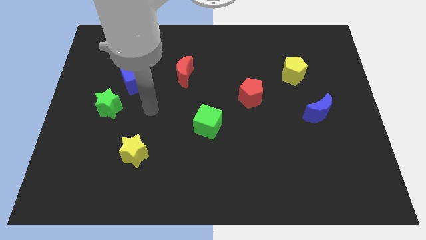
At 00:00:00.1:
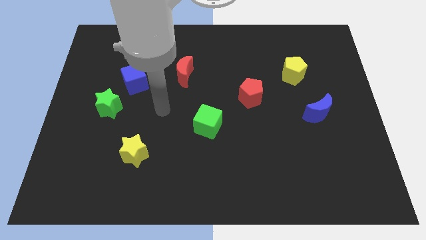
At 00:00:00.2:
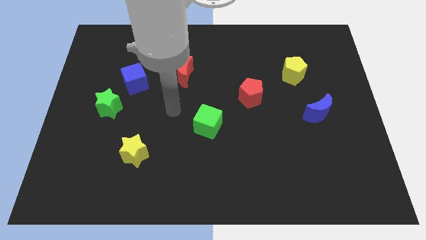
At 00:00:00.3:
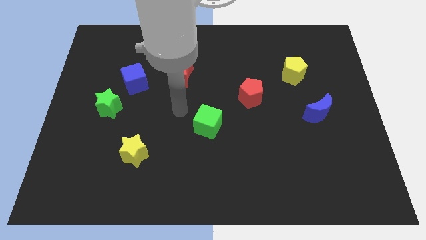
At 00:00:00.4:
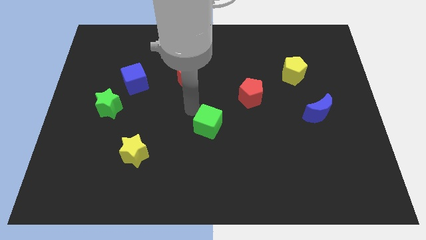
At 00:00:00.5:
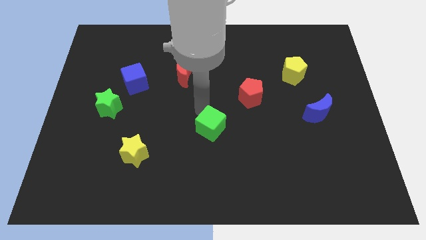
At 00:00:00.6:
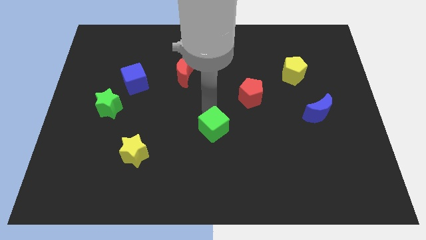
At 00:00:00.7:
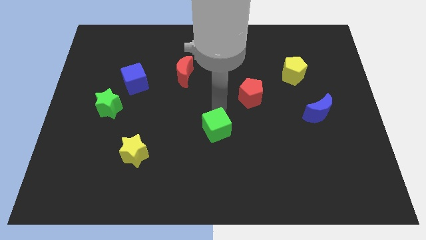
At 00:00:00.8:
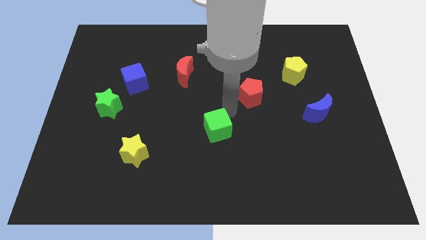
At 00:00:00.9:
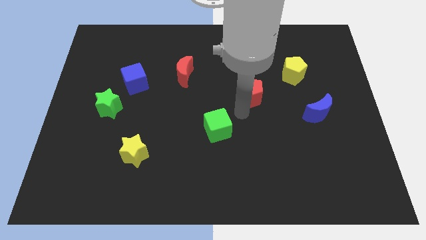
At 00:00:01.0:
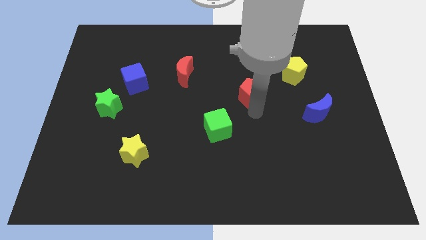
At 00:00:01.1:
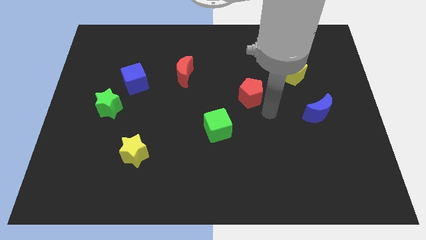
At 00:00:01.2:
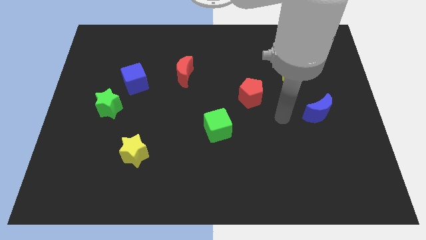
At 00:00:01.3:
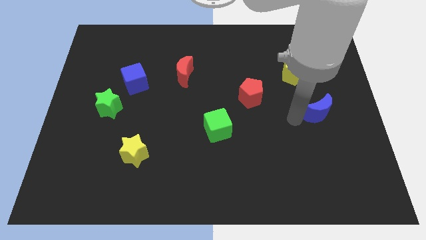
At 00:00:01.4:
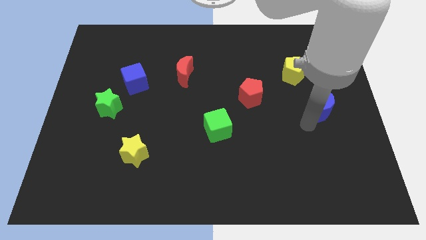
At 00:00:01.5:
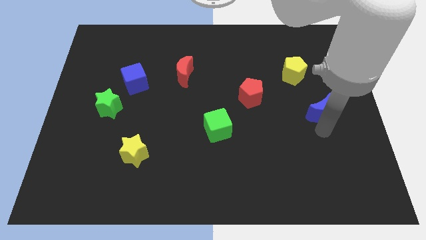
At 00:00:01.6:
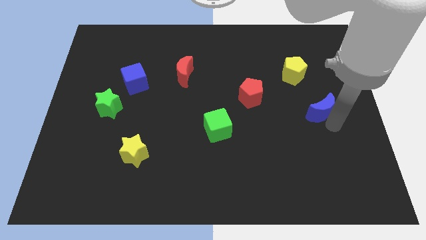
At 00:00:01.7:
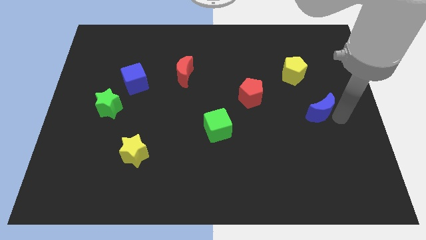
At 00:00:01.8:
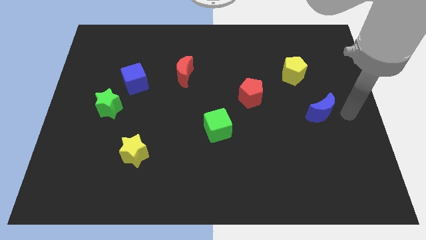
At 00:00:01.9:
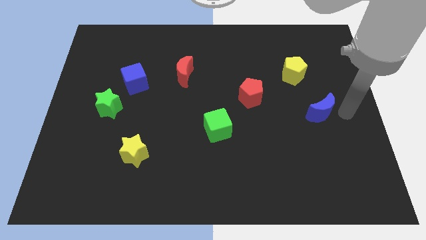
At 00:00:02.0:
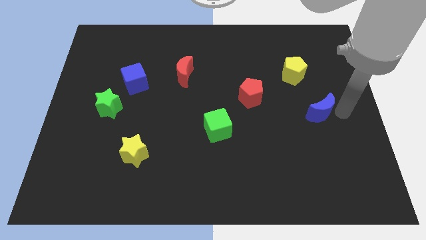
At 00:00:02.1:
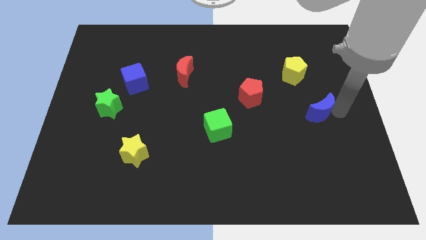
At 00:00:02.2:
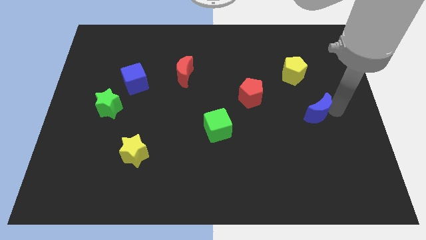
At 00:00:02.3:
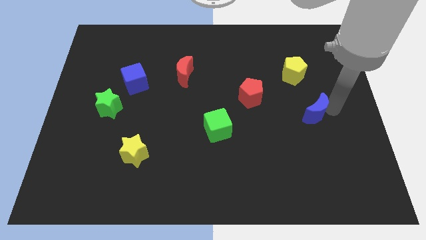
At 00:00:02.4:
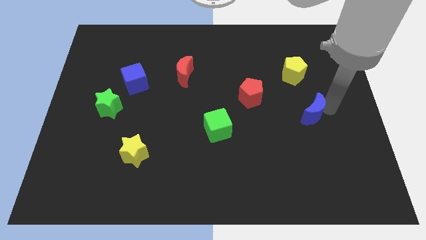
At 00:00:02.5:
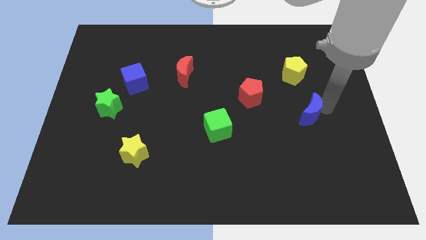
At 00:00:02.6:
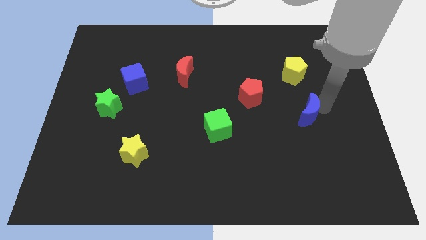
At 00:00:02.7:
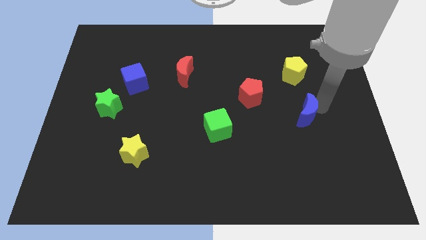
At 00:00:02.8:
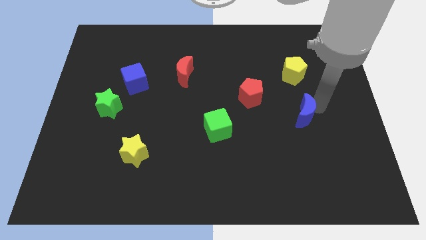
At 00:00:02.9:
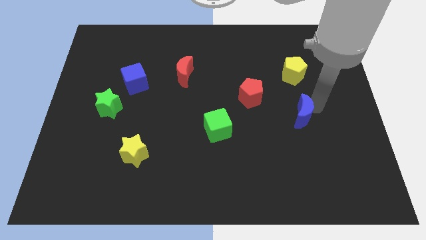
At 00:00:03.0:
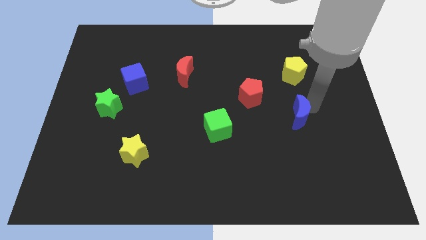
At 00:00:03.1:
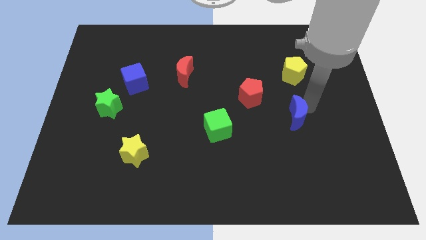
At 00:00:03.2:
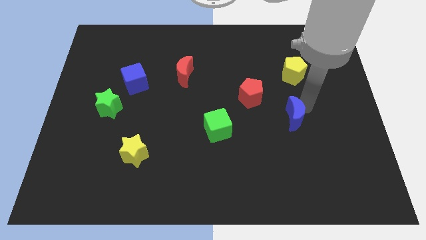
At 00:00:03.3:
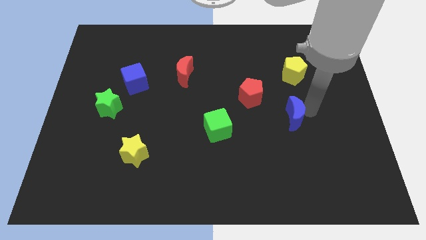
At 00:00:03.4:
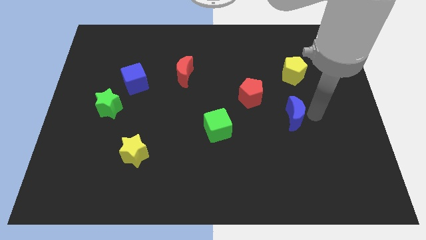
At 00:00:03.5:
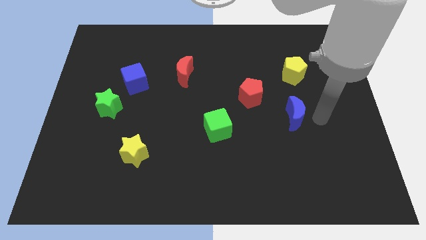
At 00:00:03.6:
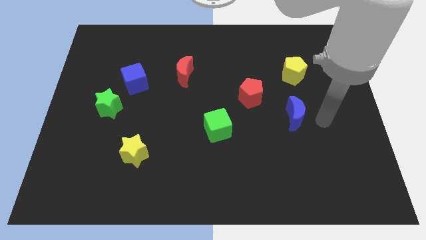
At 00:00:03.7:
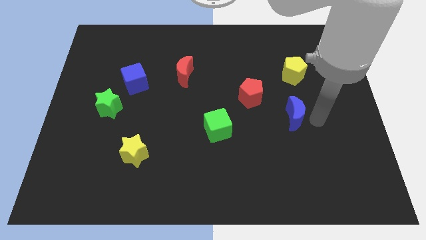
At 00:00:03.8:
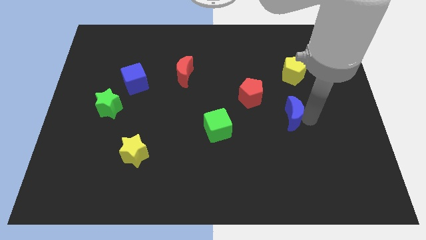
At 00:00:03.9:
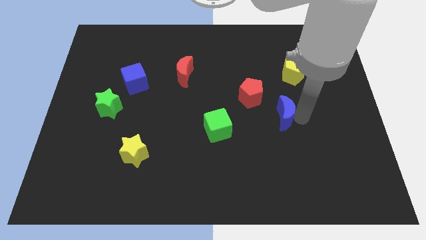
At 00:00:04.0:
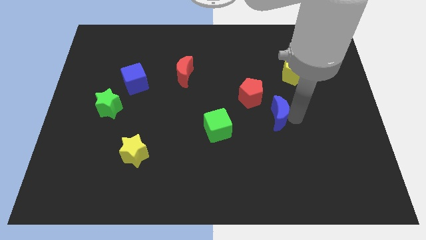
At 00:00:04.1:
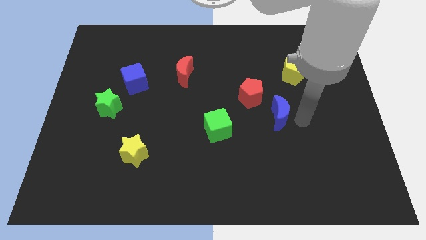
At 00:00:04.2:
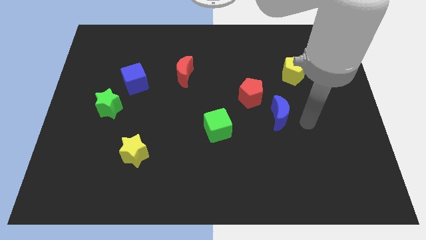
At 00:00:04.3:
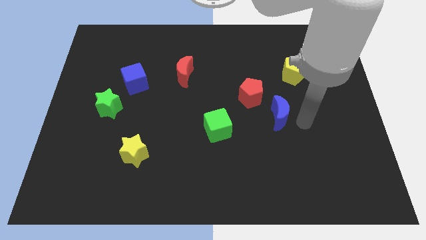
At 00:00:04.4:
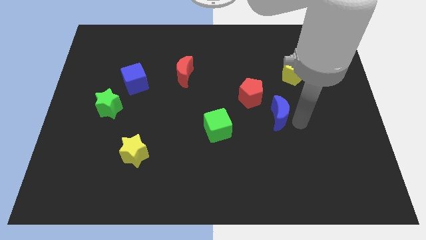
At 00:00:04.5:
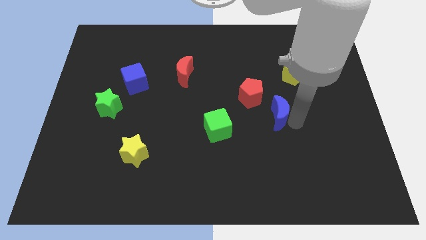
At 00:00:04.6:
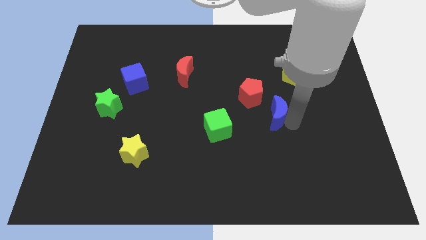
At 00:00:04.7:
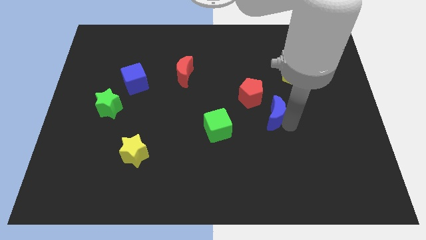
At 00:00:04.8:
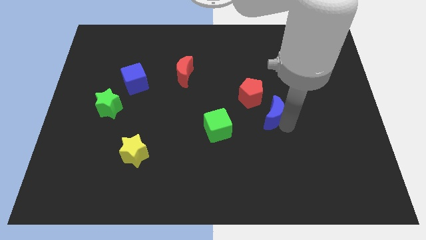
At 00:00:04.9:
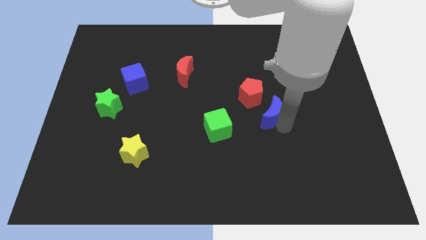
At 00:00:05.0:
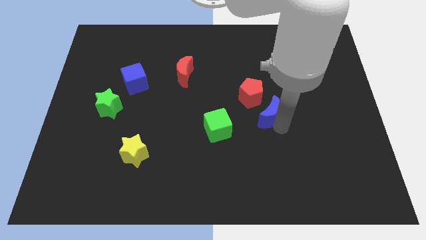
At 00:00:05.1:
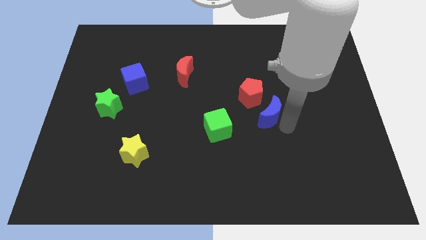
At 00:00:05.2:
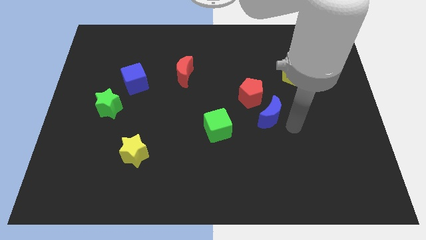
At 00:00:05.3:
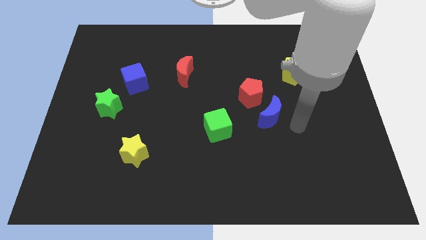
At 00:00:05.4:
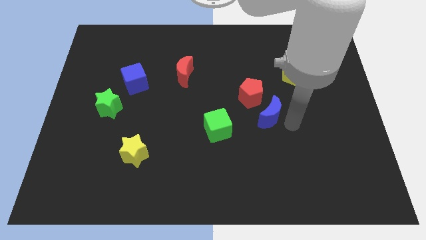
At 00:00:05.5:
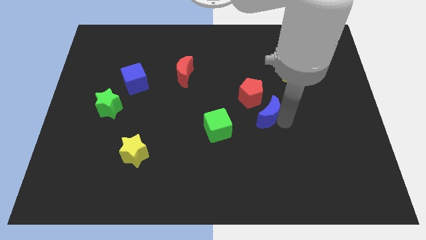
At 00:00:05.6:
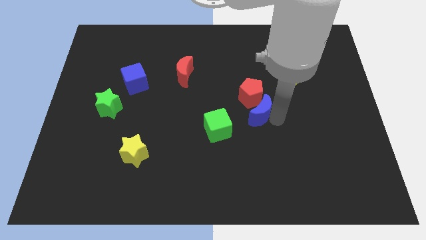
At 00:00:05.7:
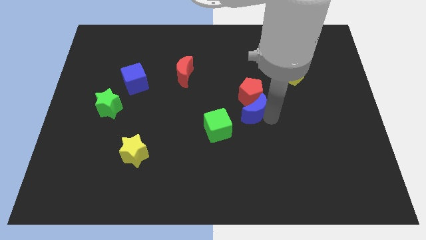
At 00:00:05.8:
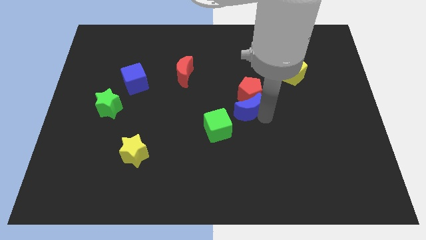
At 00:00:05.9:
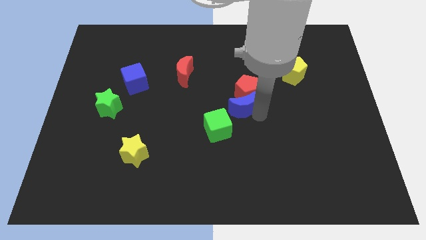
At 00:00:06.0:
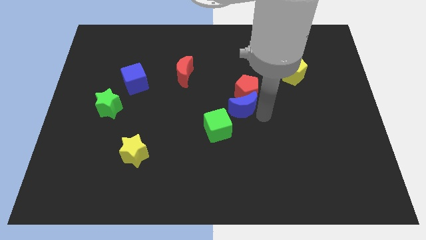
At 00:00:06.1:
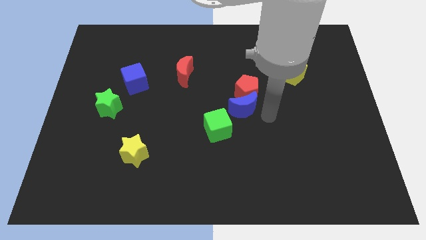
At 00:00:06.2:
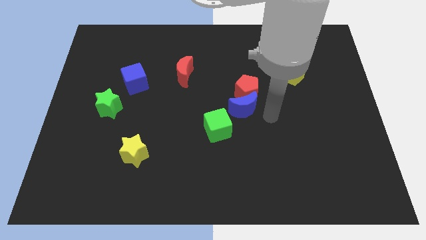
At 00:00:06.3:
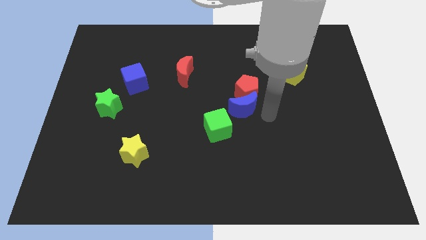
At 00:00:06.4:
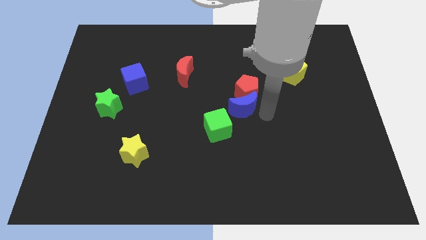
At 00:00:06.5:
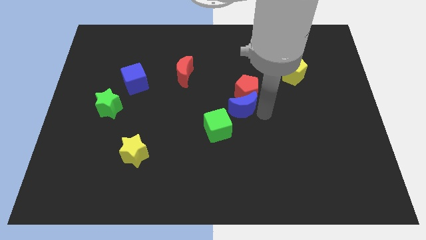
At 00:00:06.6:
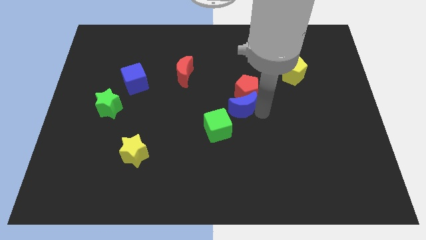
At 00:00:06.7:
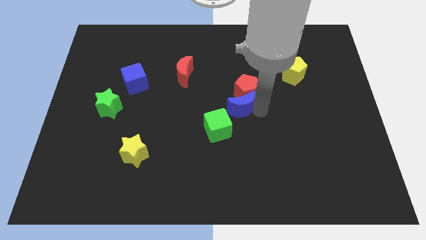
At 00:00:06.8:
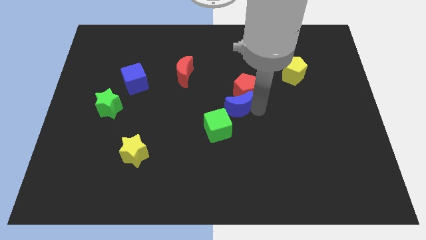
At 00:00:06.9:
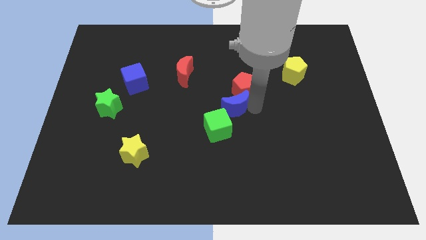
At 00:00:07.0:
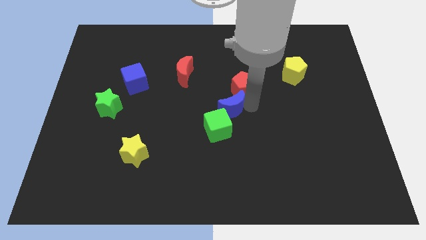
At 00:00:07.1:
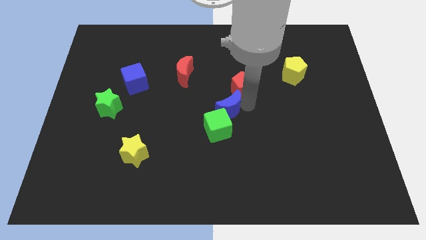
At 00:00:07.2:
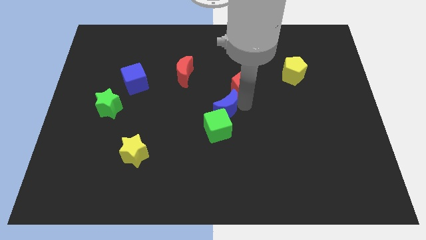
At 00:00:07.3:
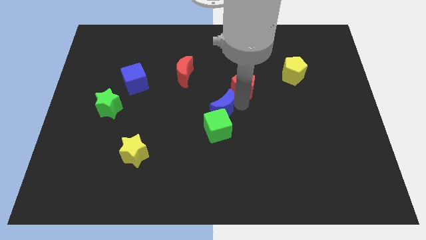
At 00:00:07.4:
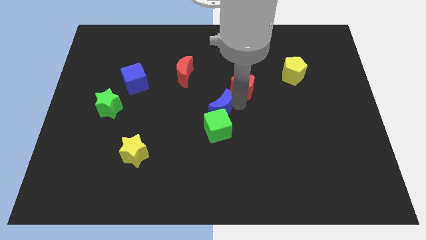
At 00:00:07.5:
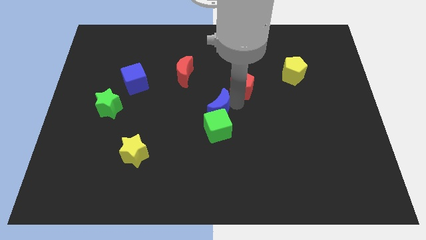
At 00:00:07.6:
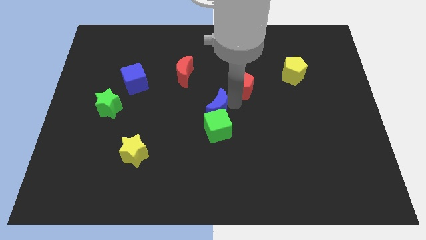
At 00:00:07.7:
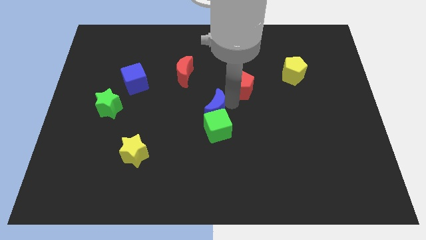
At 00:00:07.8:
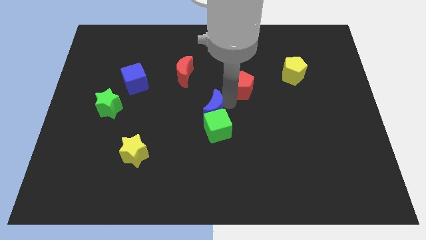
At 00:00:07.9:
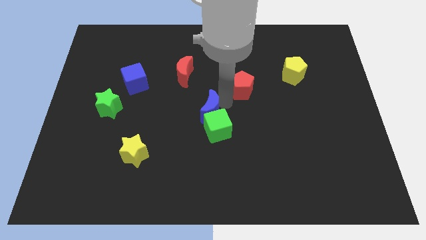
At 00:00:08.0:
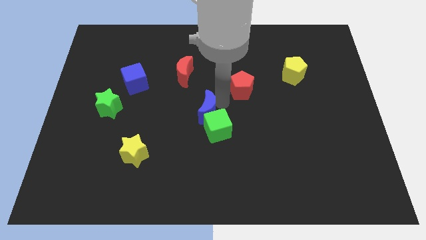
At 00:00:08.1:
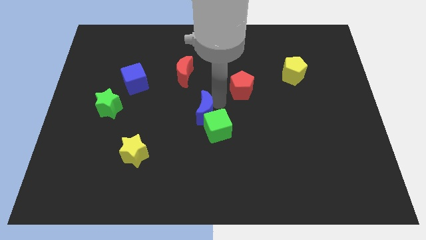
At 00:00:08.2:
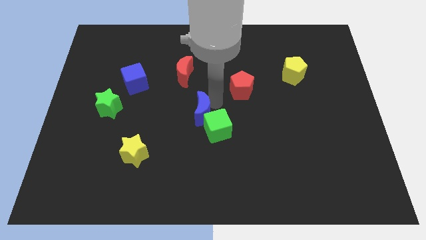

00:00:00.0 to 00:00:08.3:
move the blue moon to the bottom of the red moon
